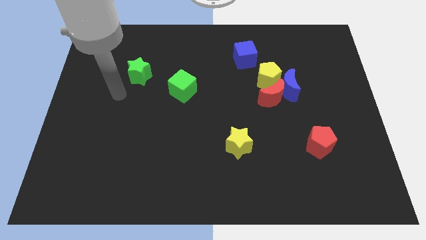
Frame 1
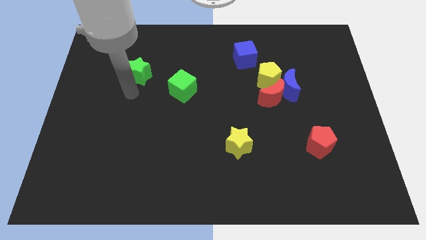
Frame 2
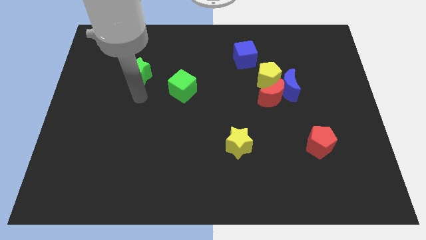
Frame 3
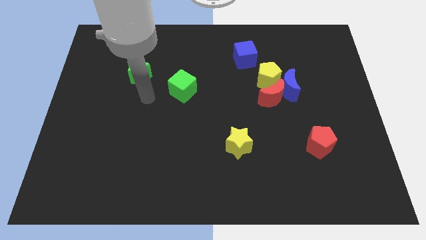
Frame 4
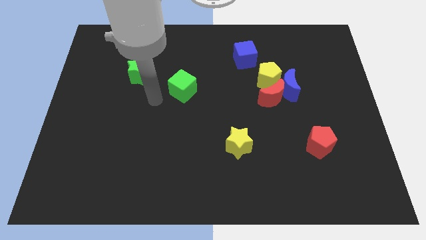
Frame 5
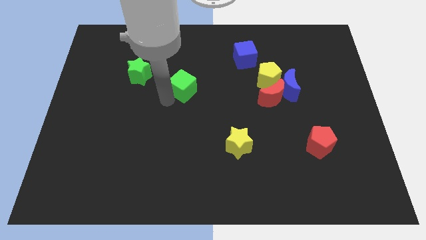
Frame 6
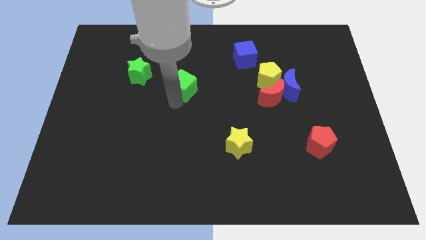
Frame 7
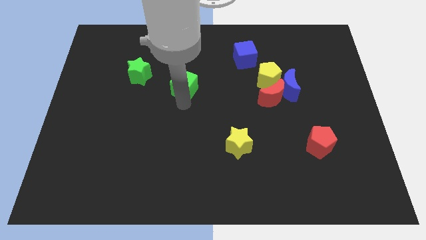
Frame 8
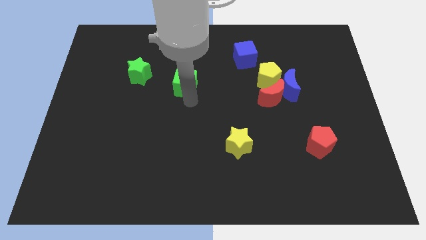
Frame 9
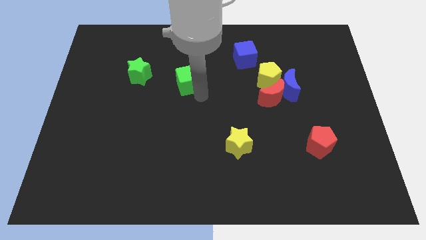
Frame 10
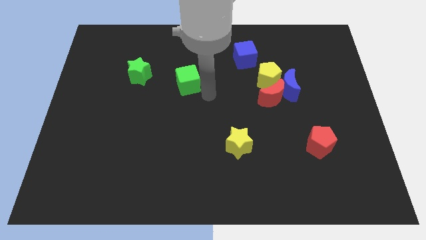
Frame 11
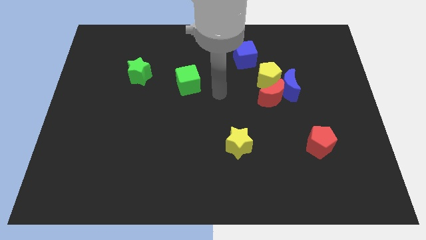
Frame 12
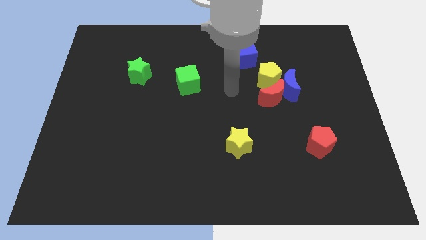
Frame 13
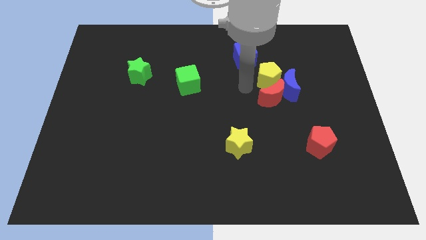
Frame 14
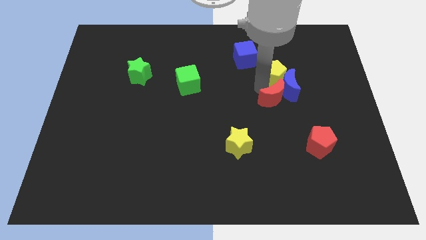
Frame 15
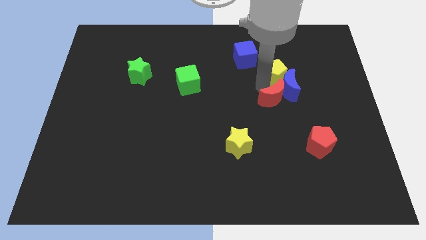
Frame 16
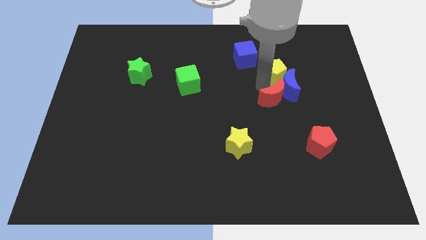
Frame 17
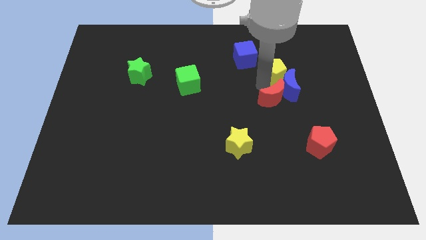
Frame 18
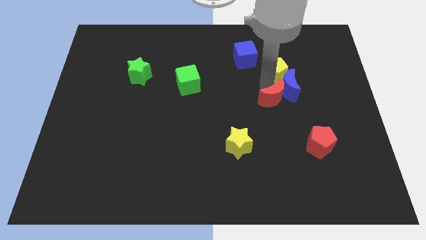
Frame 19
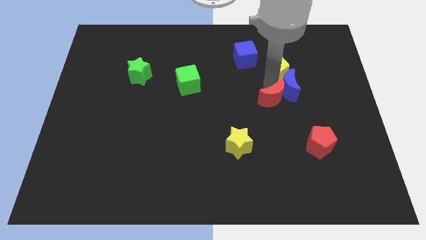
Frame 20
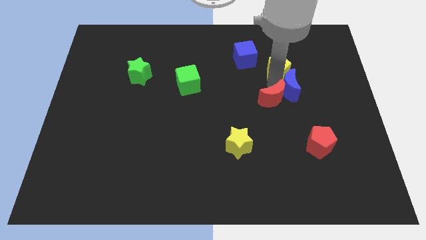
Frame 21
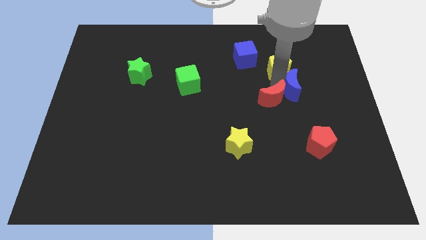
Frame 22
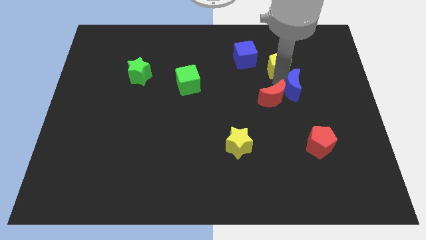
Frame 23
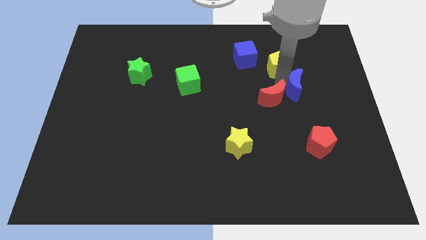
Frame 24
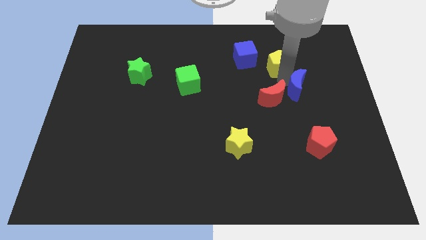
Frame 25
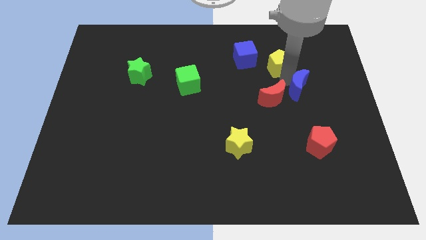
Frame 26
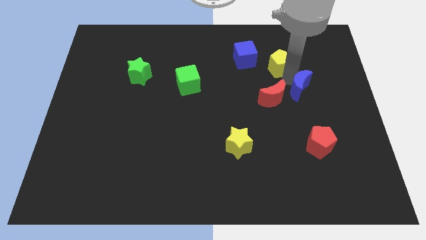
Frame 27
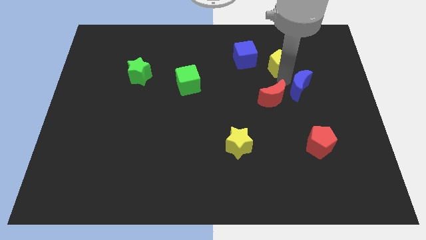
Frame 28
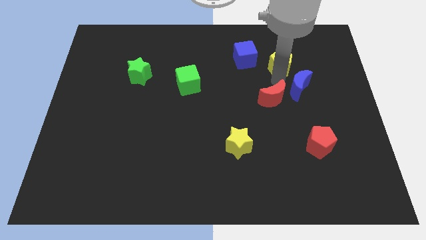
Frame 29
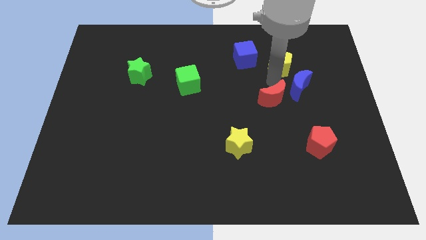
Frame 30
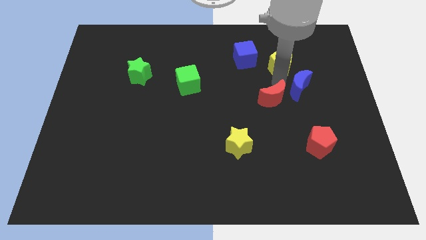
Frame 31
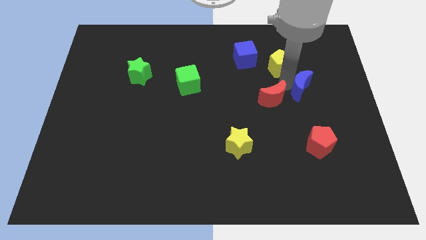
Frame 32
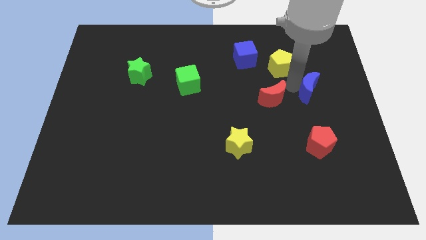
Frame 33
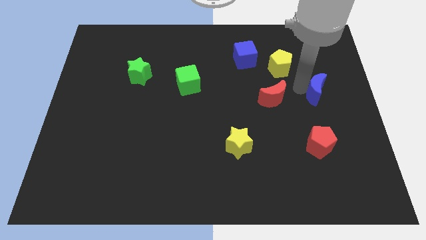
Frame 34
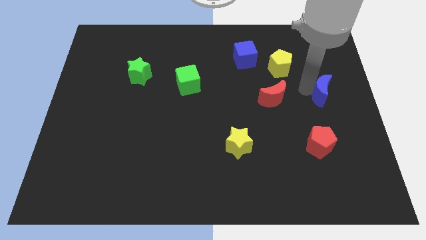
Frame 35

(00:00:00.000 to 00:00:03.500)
pull the blue moon apart from the red moon and yellow pentagon

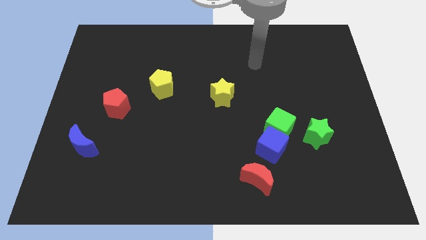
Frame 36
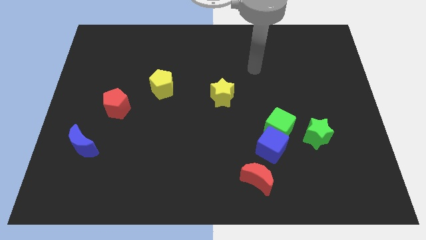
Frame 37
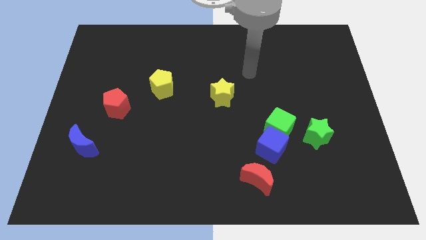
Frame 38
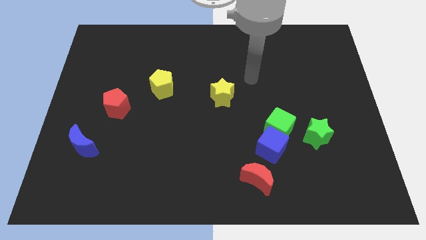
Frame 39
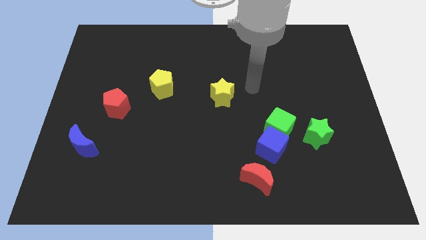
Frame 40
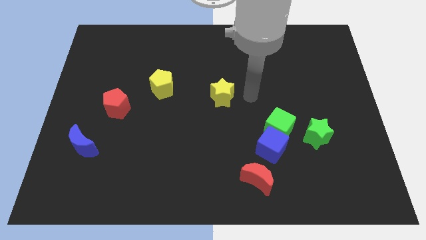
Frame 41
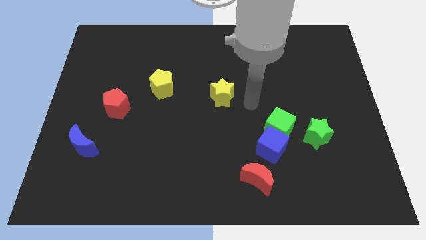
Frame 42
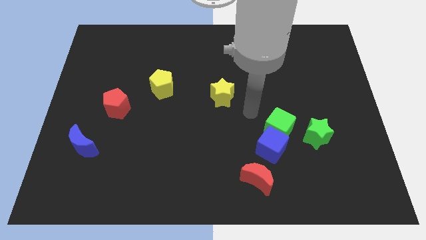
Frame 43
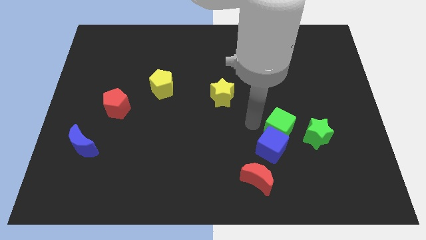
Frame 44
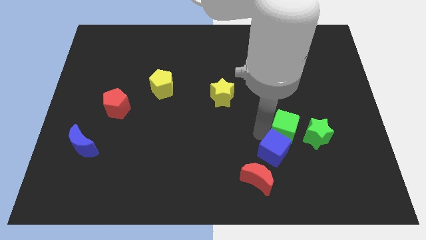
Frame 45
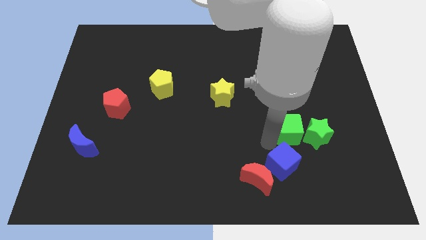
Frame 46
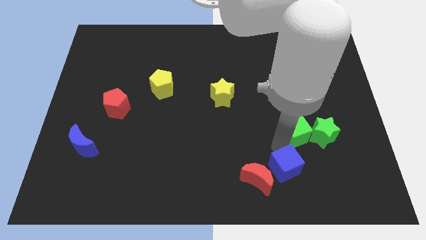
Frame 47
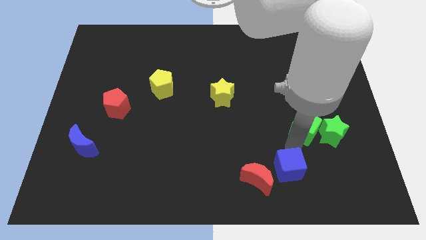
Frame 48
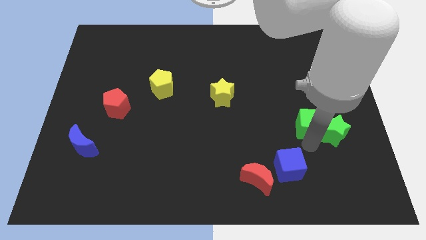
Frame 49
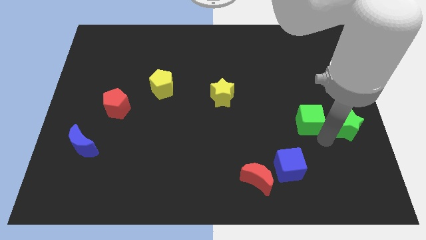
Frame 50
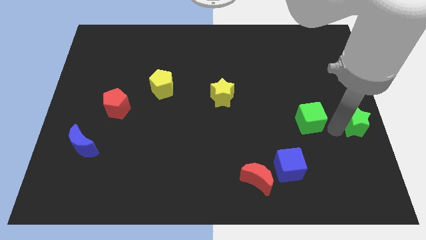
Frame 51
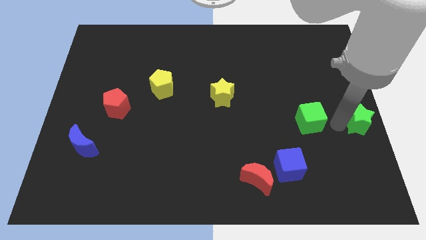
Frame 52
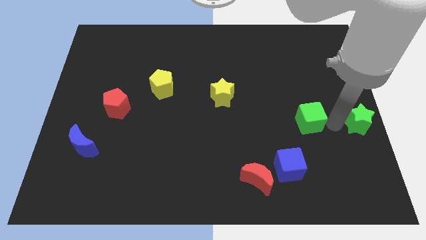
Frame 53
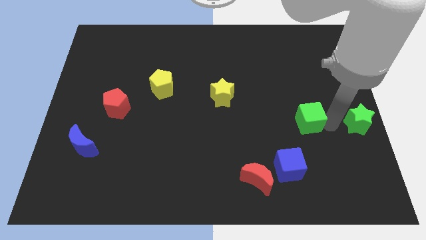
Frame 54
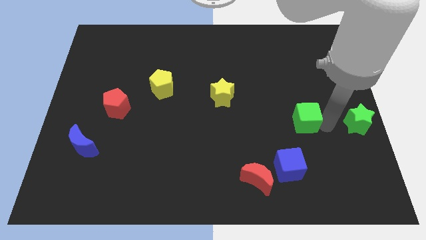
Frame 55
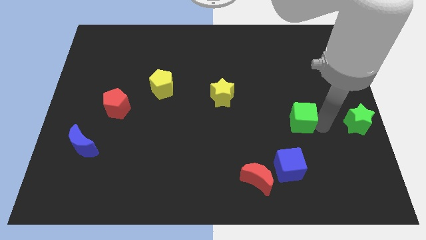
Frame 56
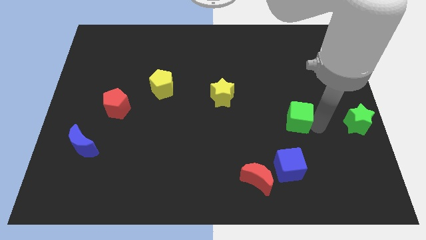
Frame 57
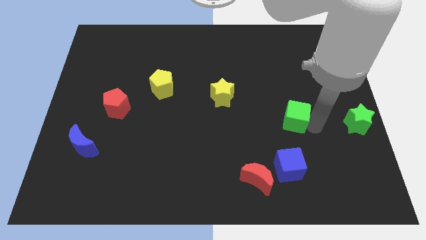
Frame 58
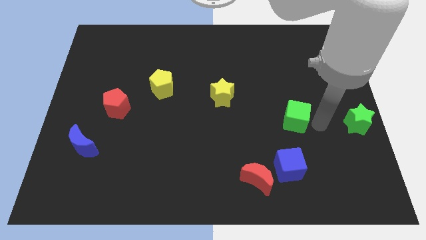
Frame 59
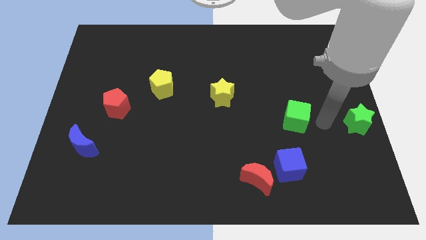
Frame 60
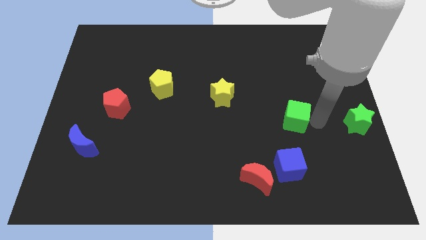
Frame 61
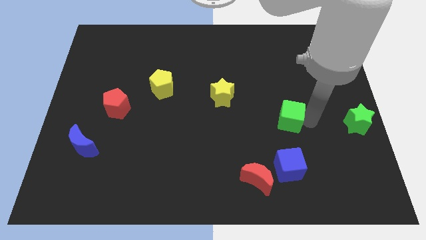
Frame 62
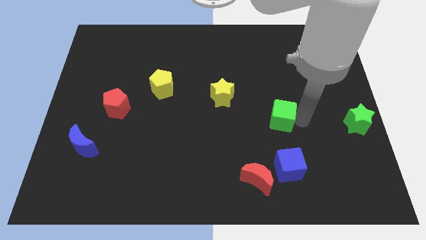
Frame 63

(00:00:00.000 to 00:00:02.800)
separate the green cube from the blue cube and green star

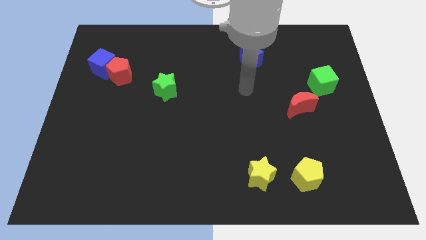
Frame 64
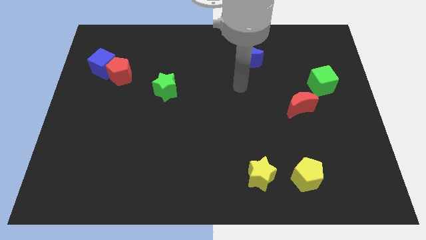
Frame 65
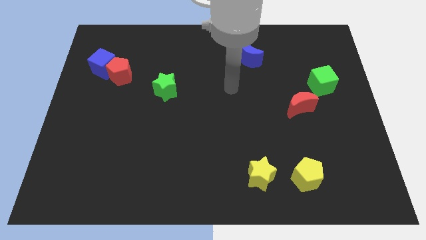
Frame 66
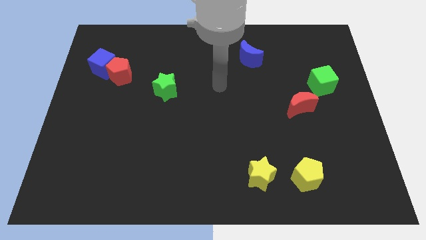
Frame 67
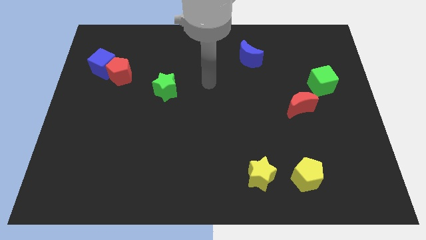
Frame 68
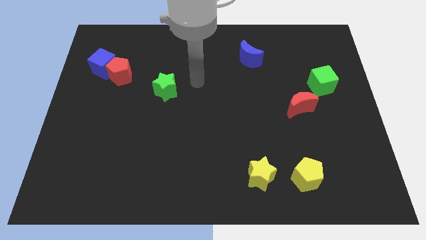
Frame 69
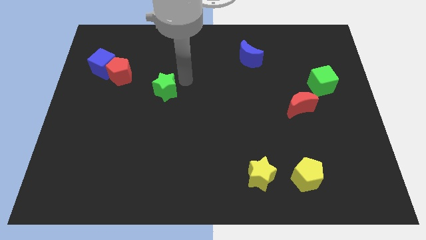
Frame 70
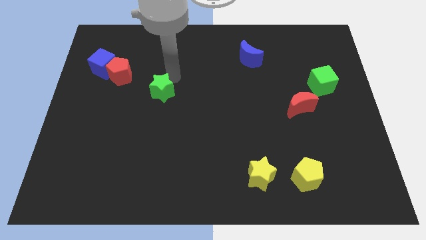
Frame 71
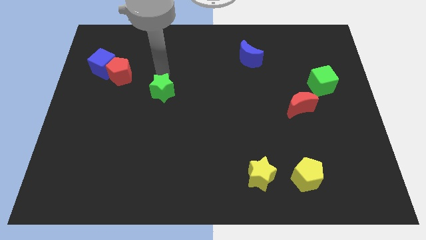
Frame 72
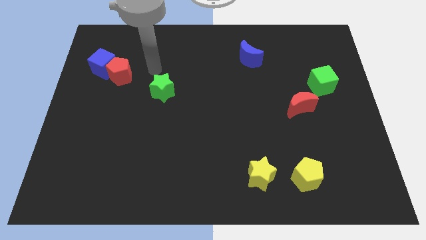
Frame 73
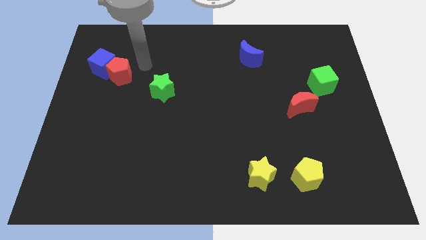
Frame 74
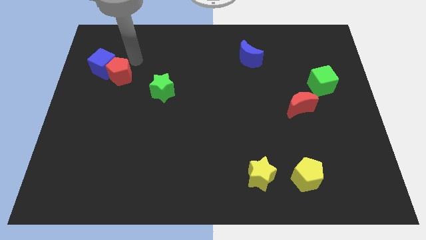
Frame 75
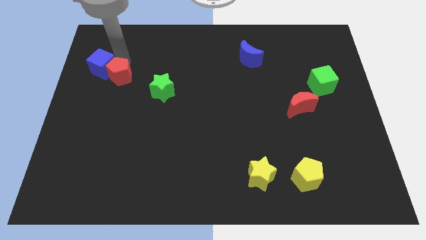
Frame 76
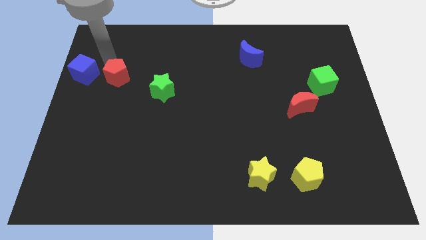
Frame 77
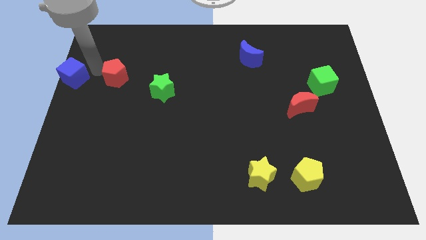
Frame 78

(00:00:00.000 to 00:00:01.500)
move the red pentagon away from the blue cube

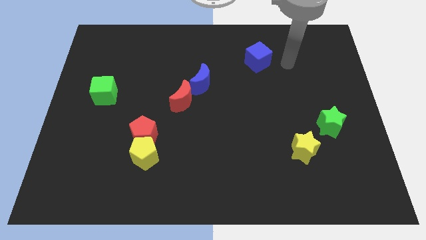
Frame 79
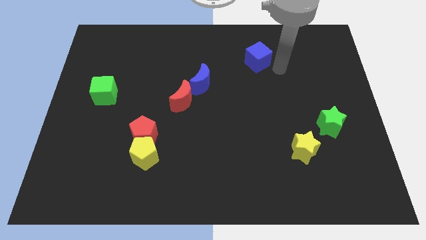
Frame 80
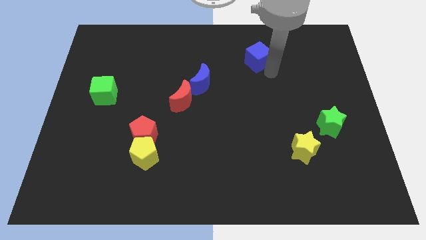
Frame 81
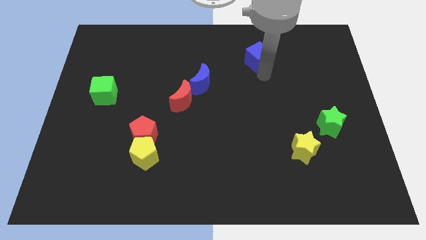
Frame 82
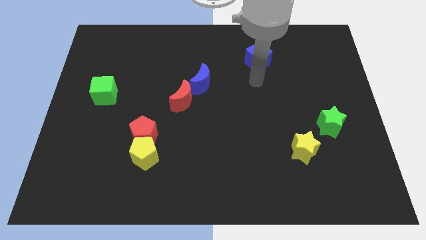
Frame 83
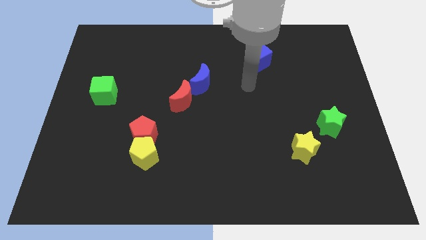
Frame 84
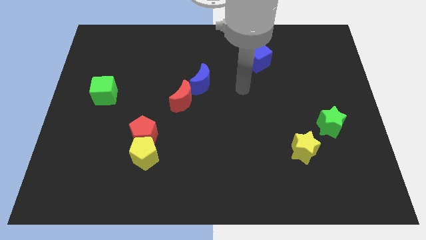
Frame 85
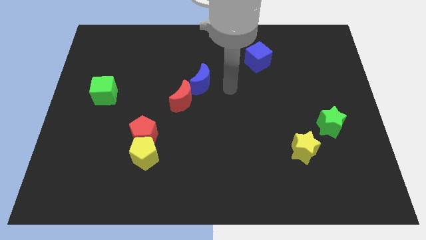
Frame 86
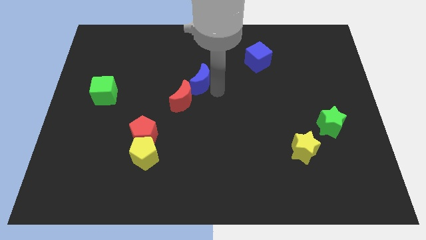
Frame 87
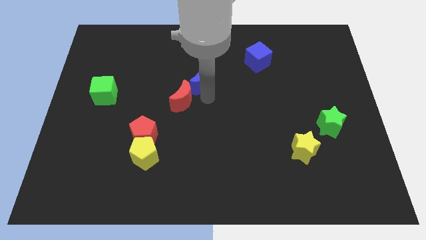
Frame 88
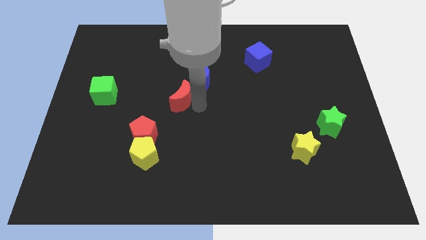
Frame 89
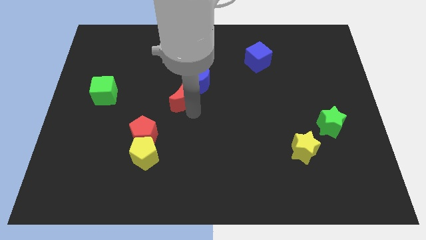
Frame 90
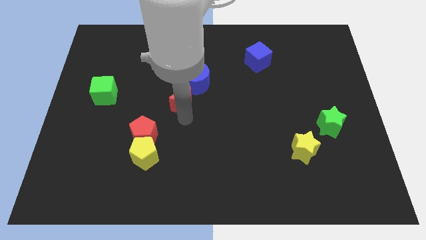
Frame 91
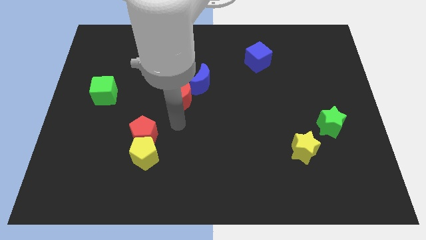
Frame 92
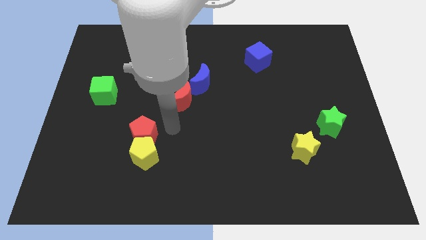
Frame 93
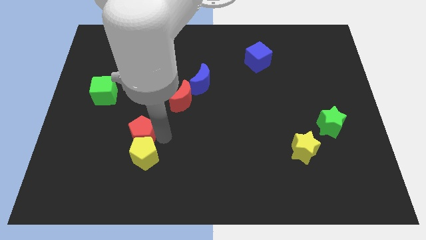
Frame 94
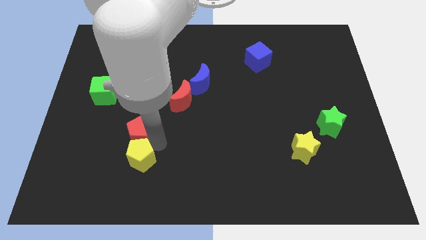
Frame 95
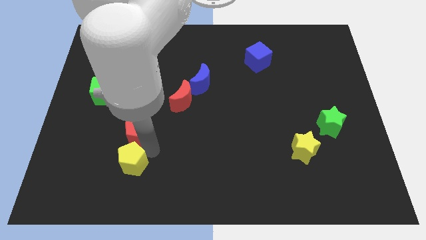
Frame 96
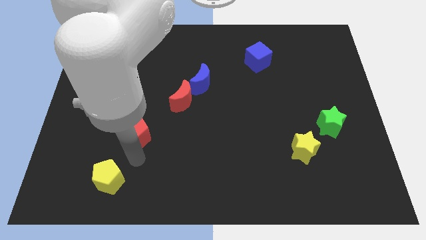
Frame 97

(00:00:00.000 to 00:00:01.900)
move the red pentagon away from the yellow pentagon
